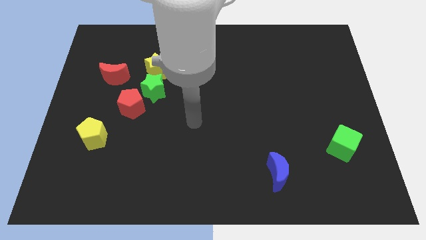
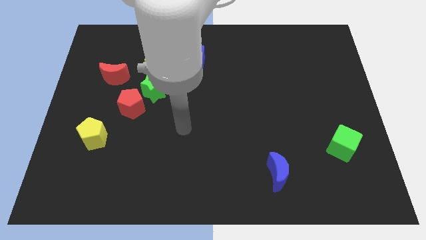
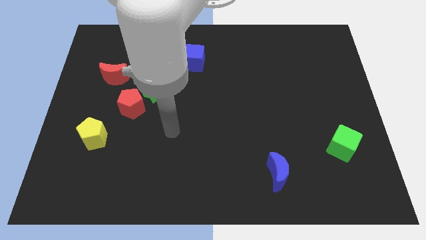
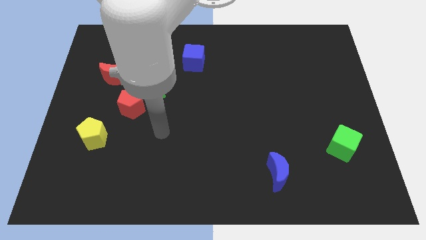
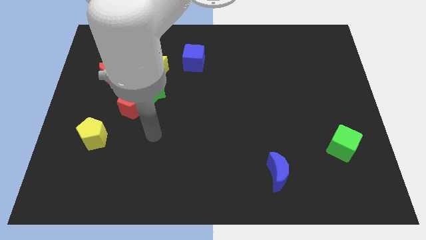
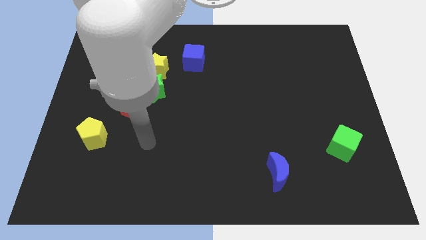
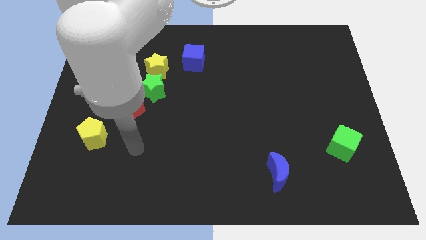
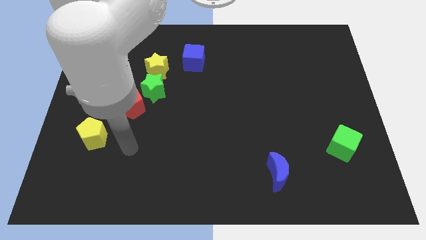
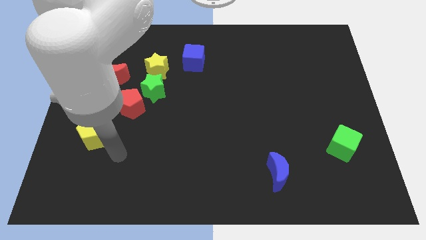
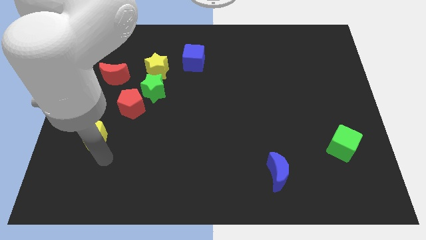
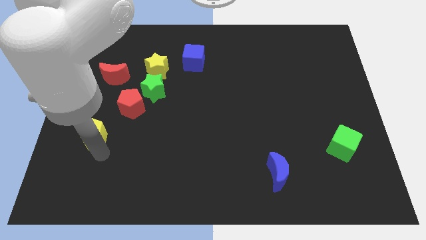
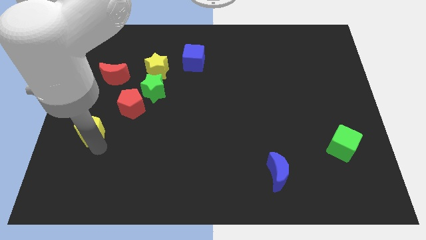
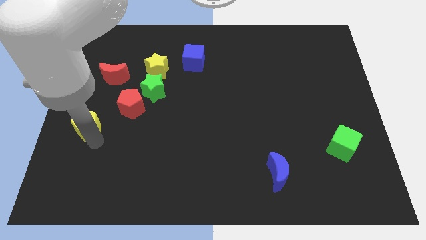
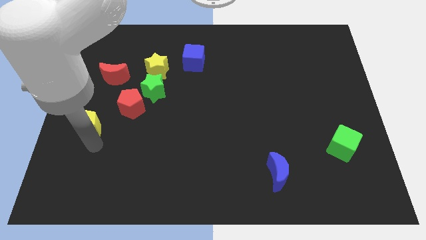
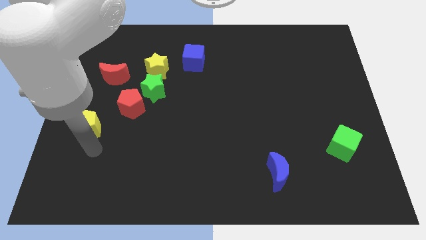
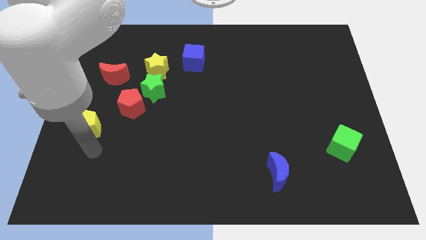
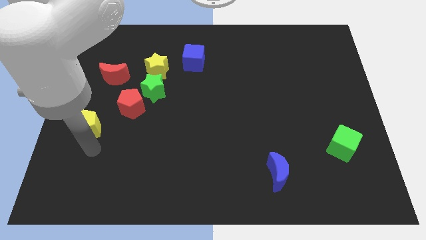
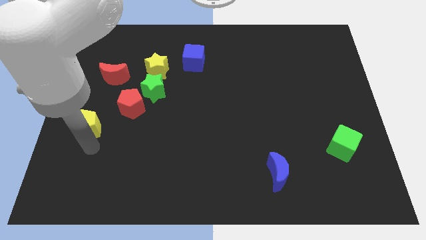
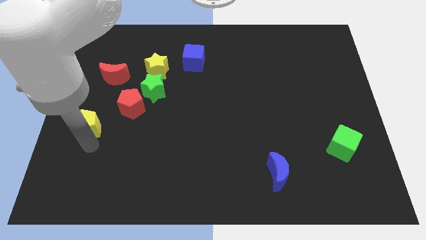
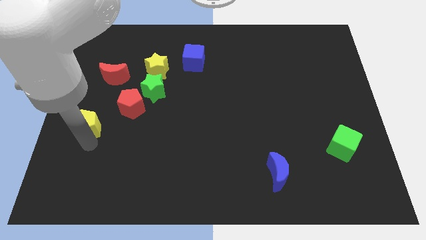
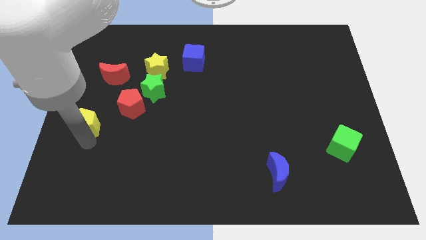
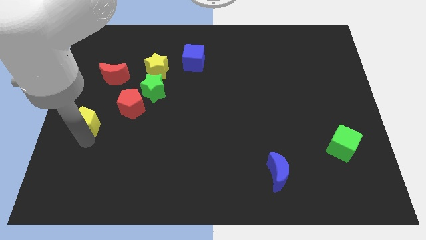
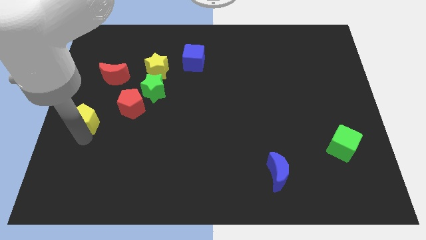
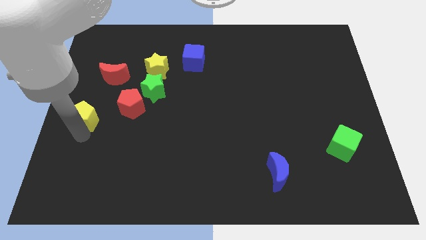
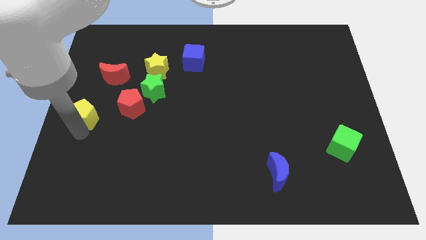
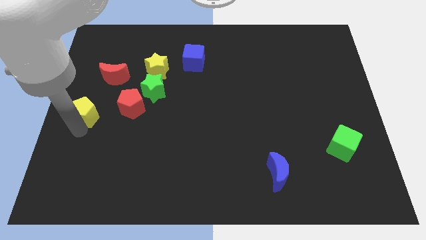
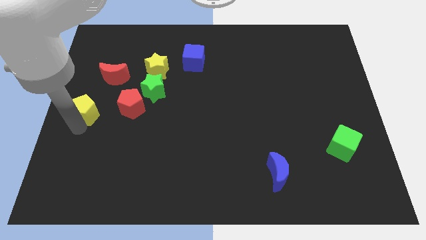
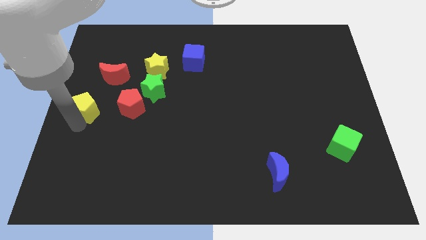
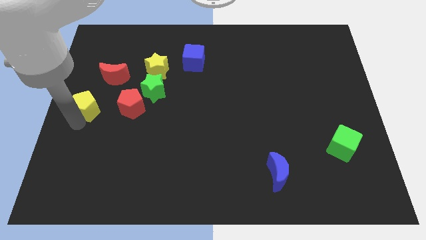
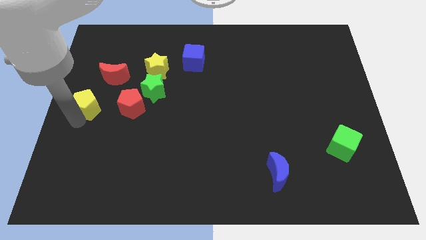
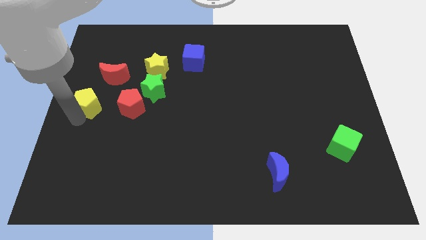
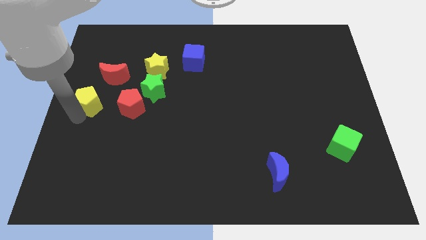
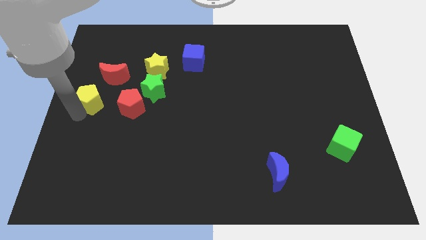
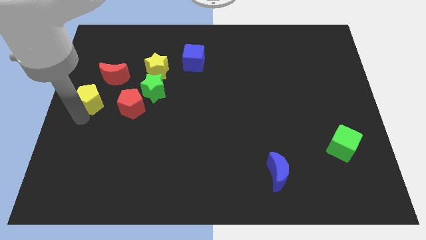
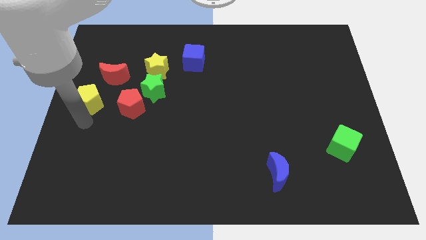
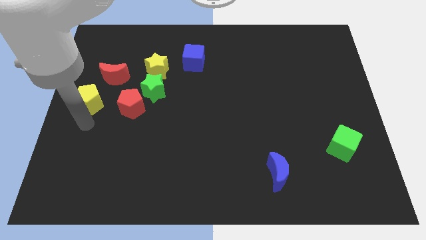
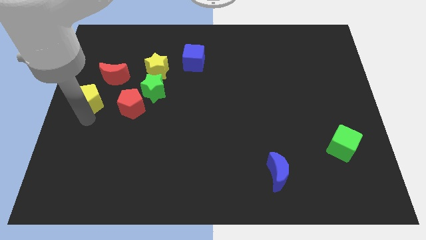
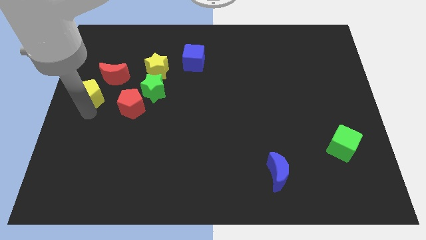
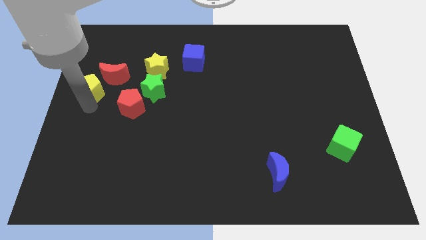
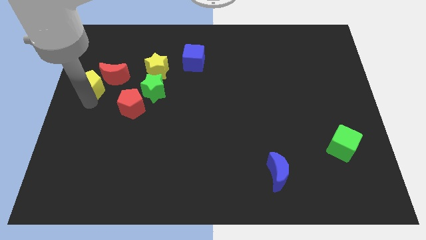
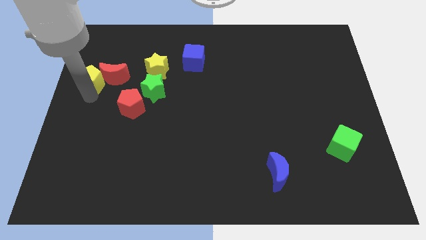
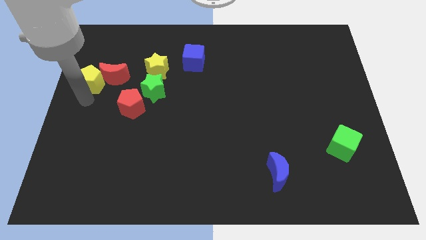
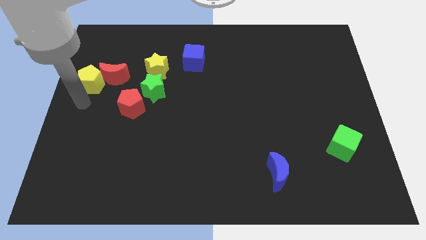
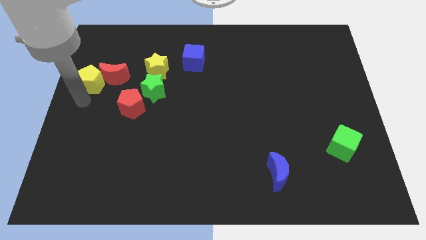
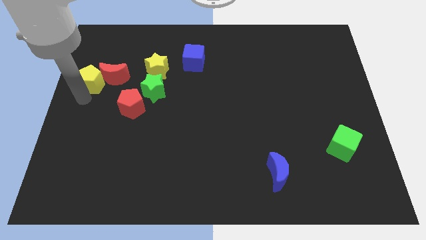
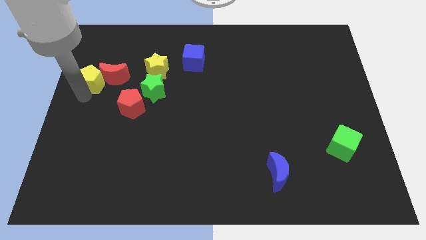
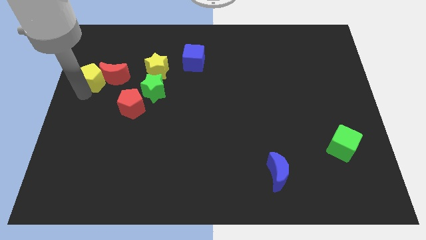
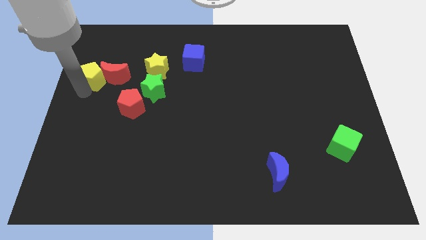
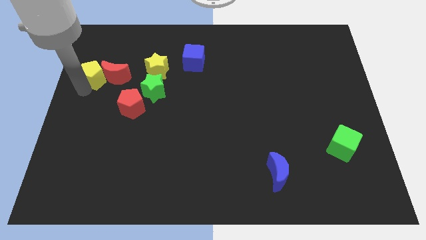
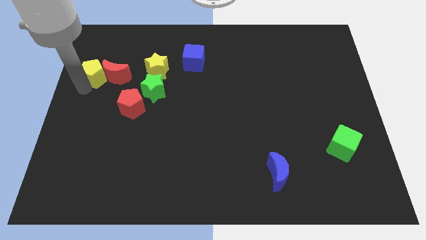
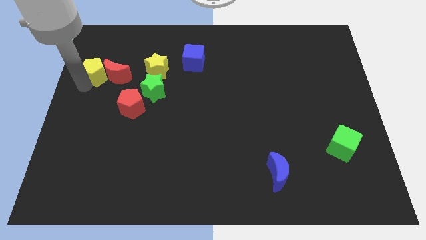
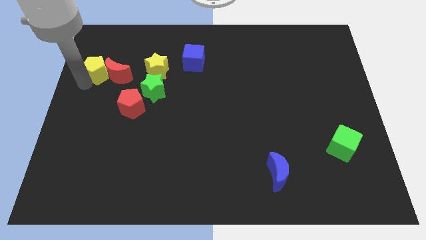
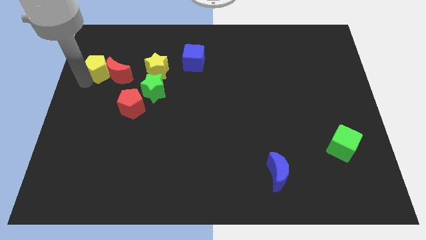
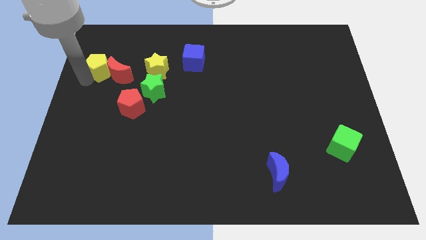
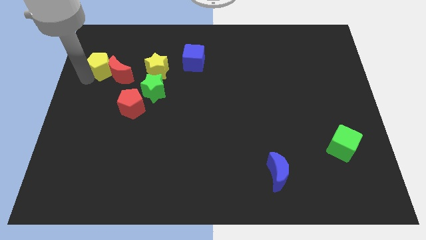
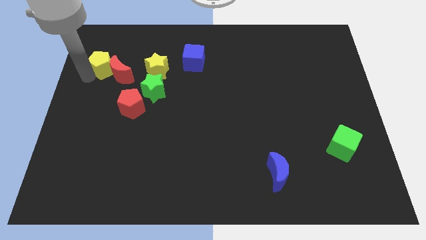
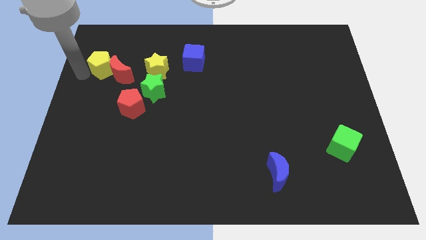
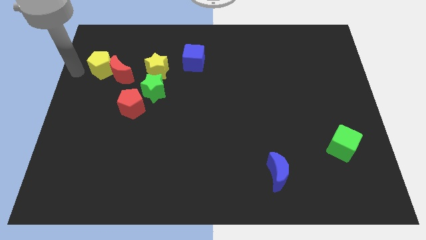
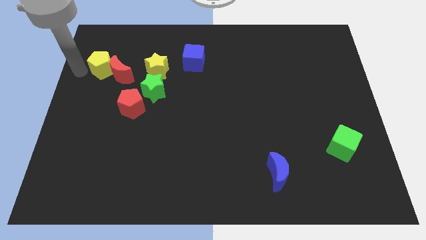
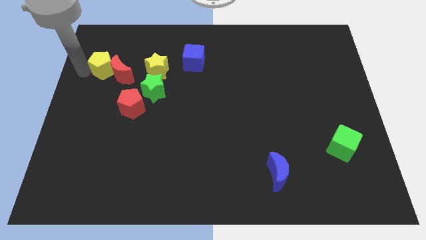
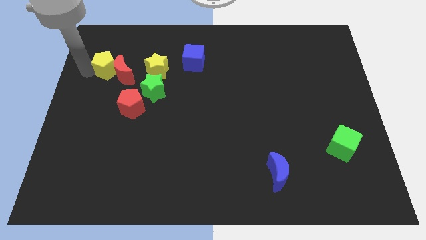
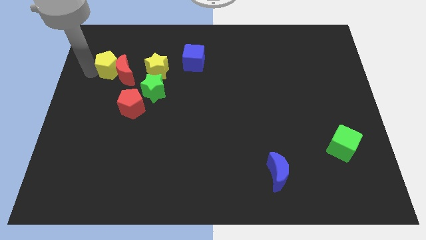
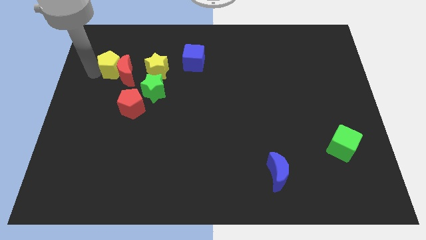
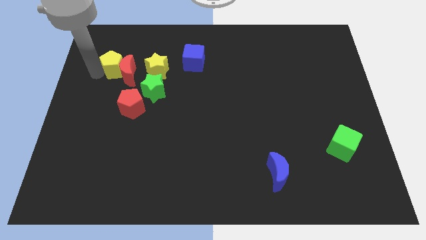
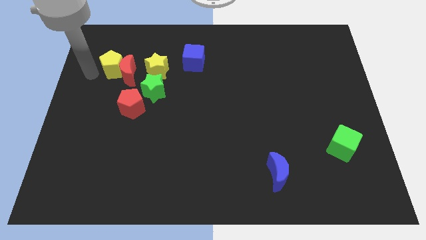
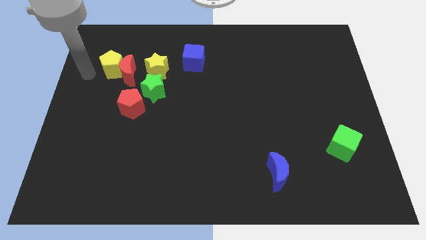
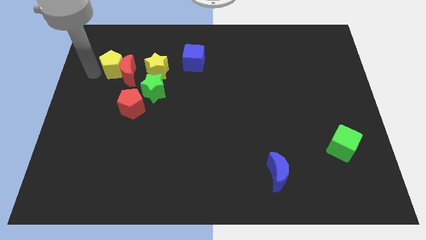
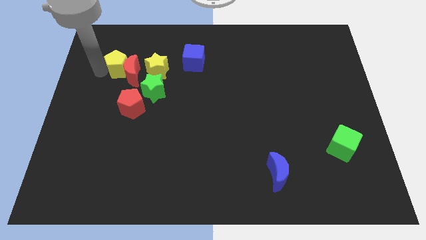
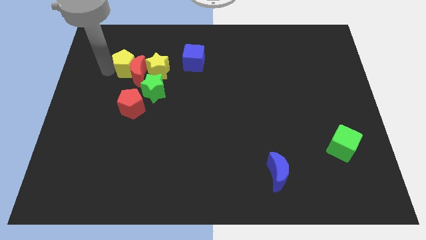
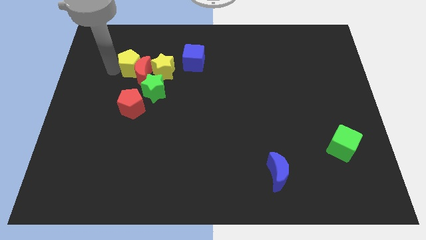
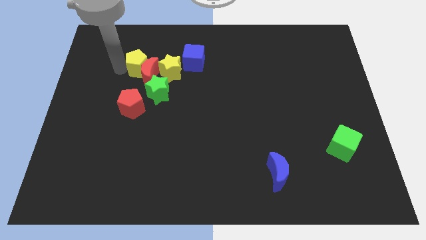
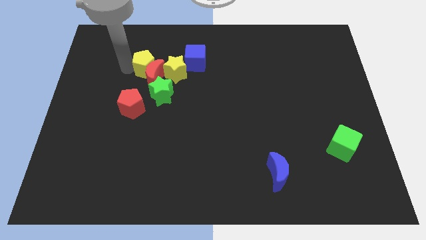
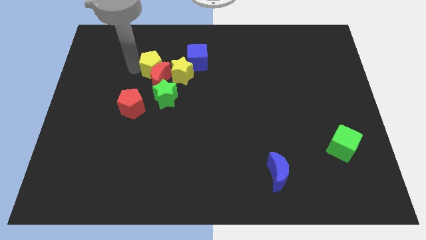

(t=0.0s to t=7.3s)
push the yellow pentagon to the top side of the green star
